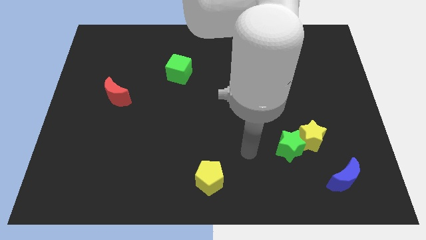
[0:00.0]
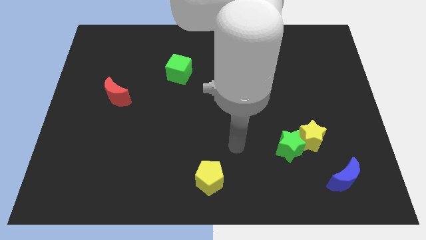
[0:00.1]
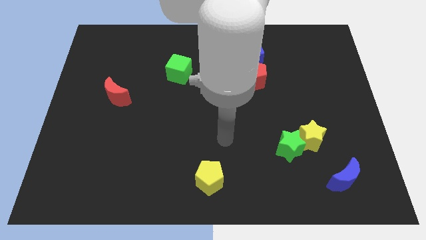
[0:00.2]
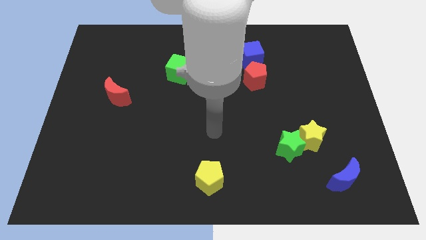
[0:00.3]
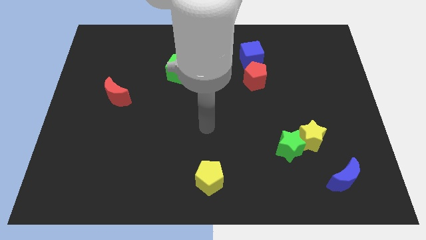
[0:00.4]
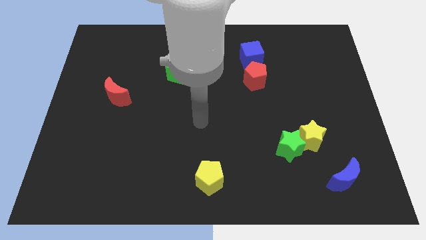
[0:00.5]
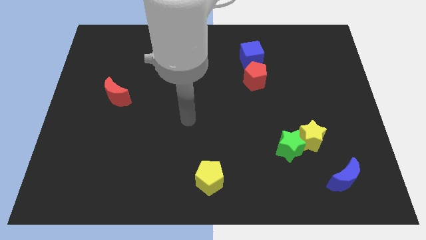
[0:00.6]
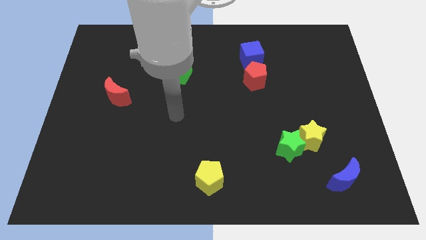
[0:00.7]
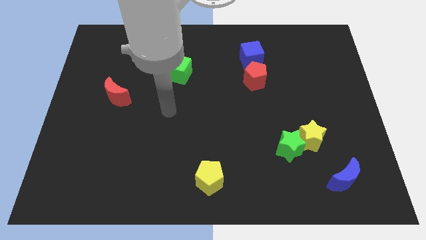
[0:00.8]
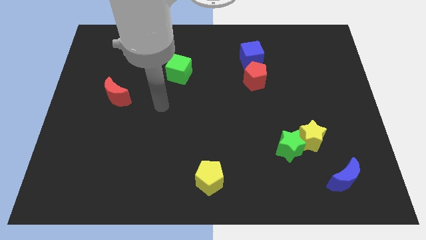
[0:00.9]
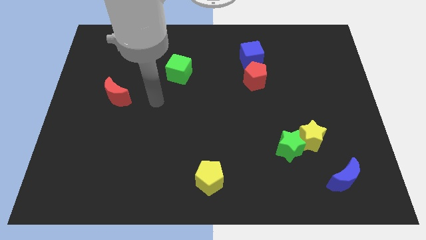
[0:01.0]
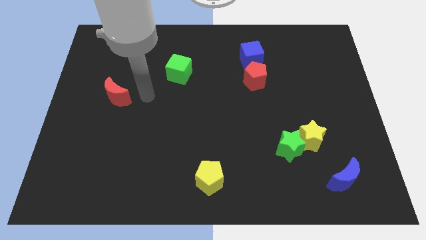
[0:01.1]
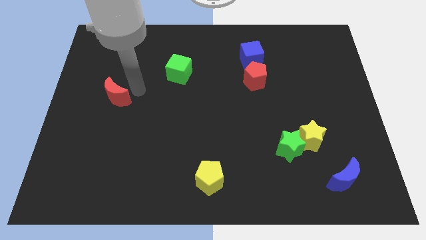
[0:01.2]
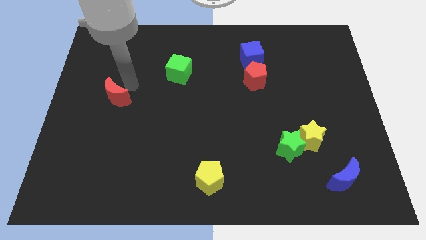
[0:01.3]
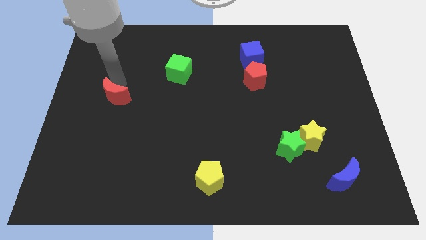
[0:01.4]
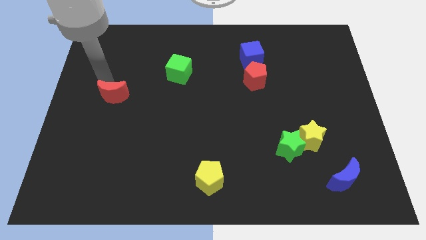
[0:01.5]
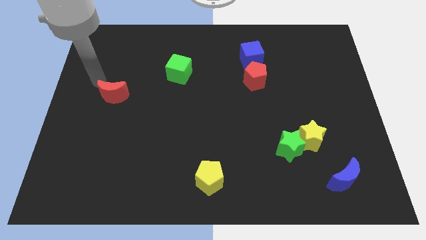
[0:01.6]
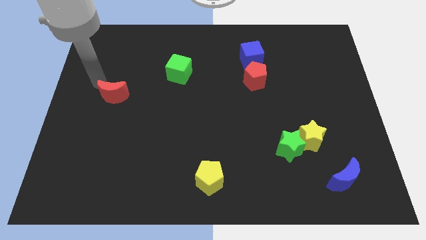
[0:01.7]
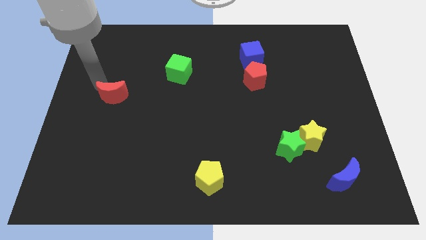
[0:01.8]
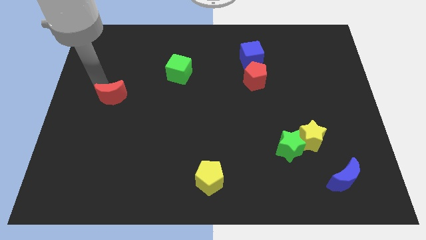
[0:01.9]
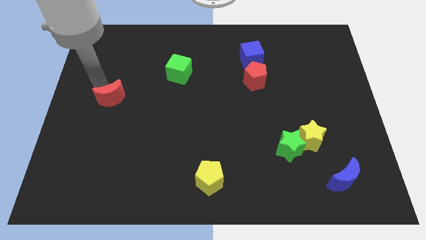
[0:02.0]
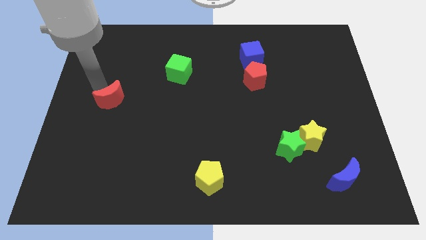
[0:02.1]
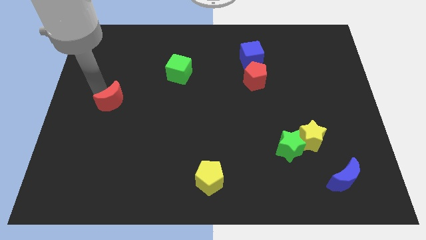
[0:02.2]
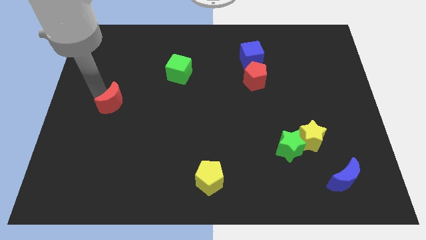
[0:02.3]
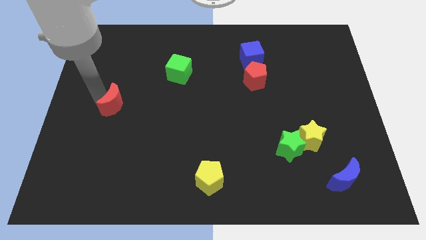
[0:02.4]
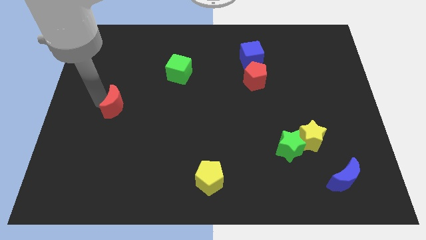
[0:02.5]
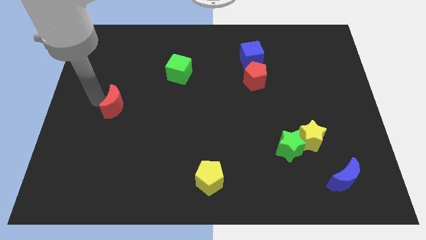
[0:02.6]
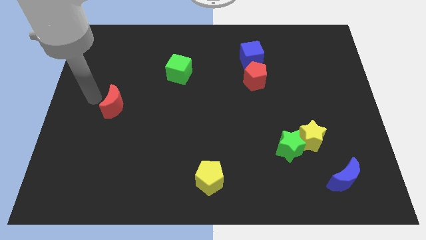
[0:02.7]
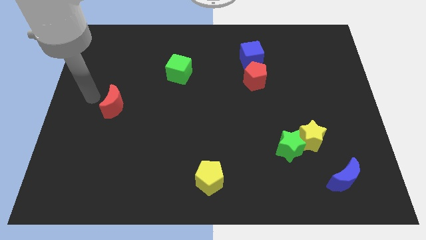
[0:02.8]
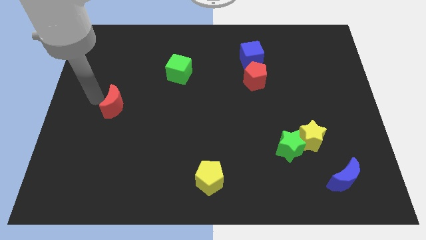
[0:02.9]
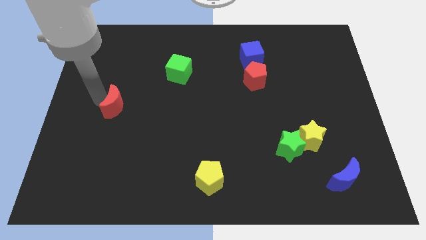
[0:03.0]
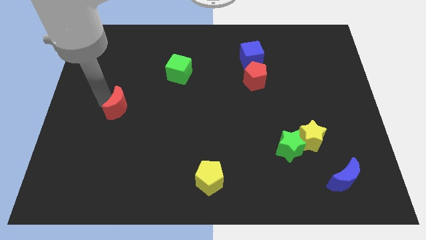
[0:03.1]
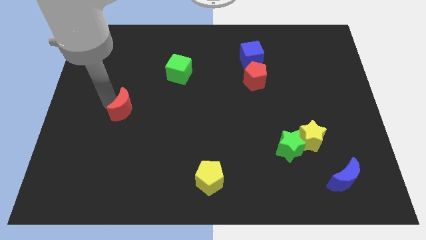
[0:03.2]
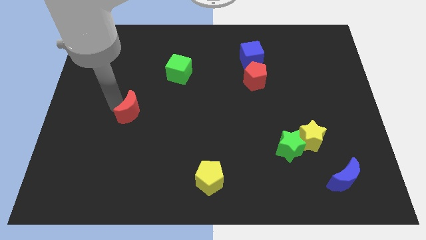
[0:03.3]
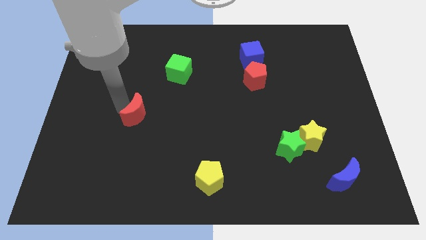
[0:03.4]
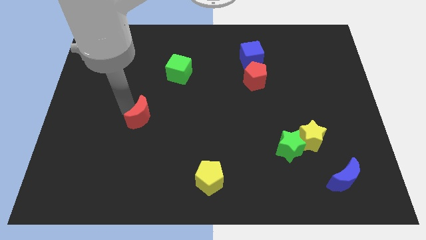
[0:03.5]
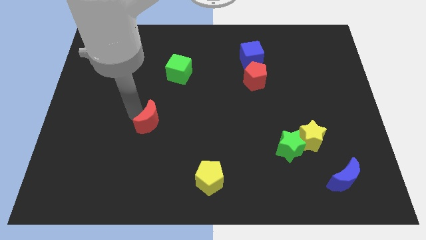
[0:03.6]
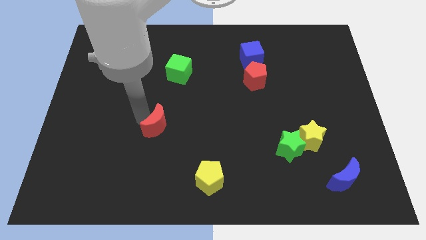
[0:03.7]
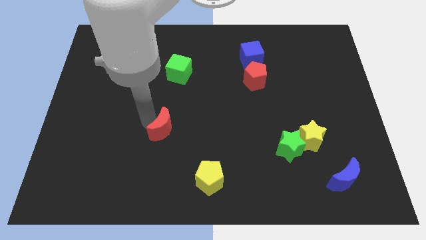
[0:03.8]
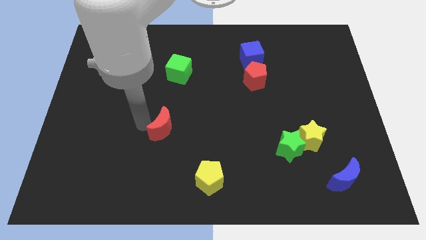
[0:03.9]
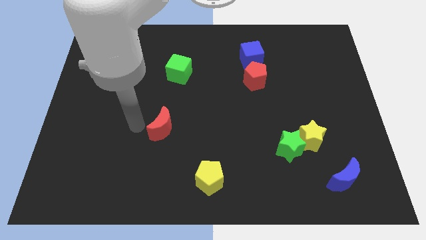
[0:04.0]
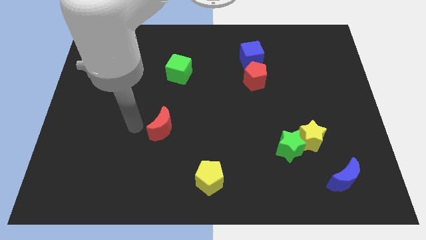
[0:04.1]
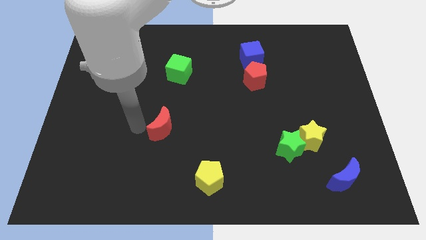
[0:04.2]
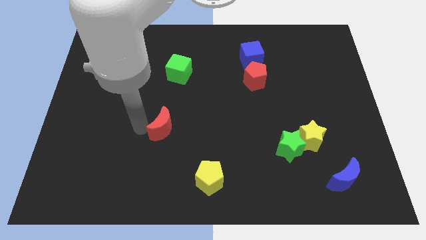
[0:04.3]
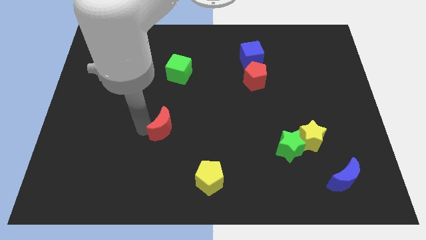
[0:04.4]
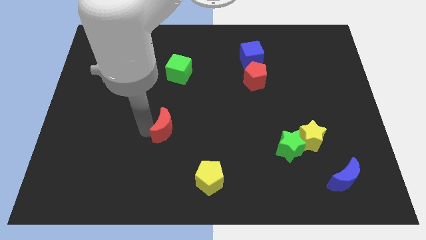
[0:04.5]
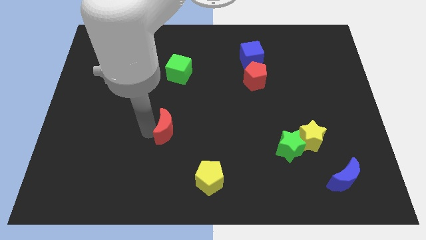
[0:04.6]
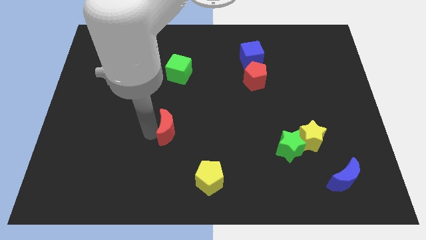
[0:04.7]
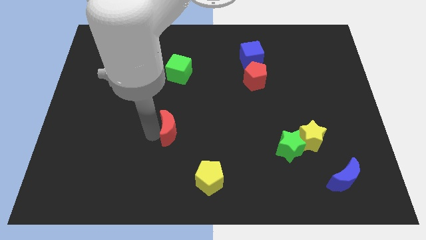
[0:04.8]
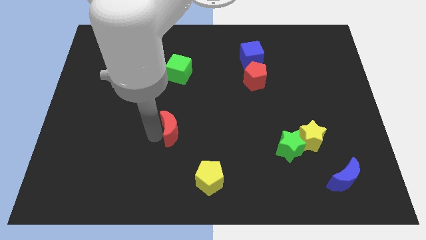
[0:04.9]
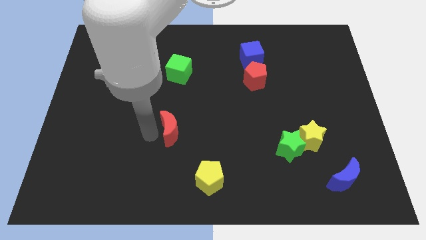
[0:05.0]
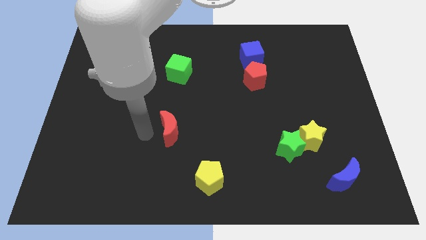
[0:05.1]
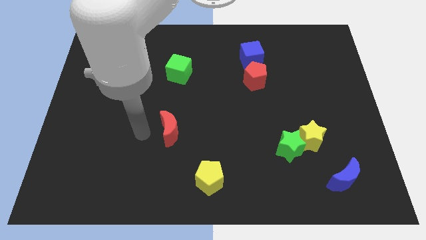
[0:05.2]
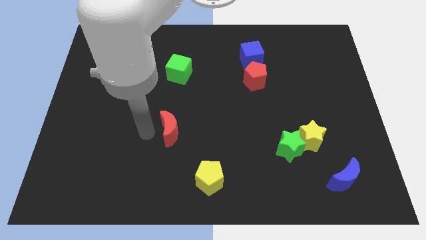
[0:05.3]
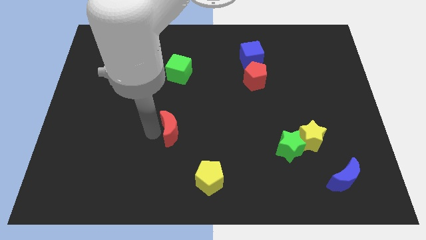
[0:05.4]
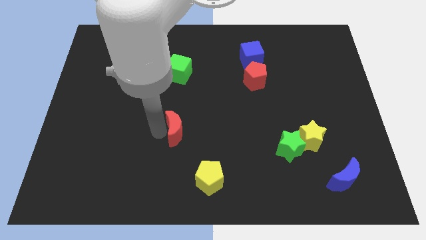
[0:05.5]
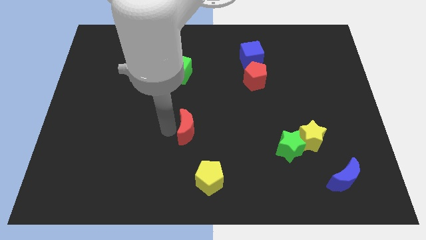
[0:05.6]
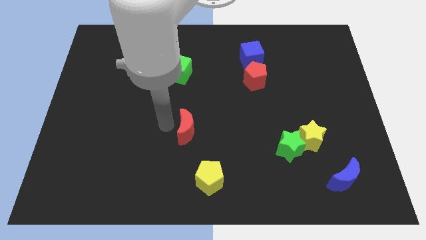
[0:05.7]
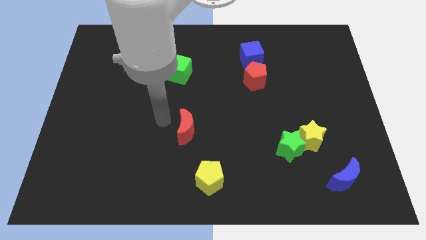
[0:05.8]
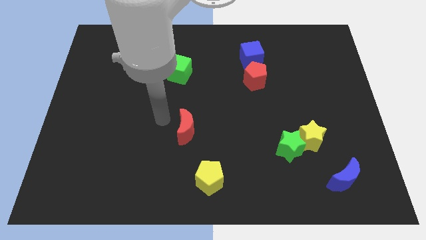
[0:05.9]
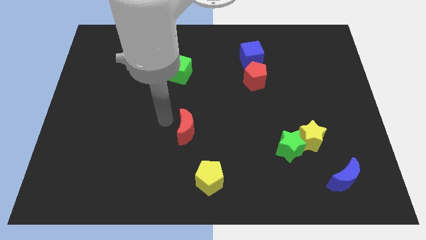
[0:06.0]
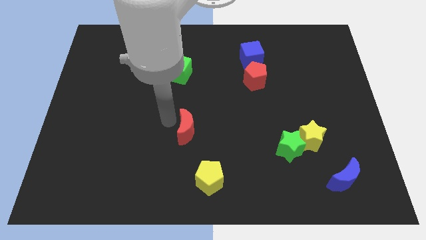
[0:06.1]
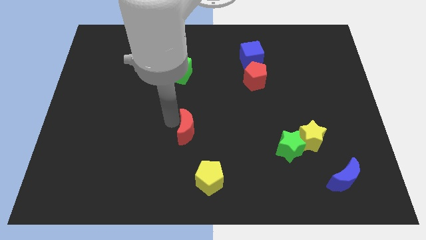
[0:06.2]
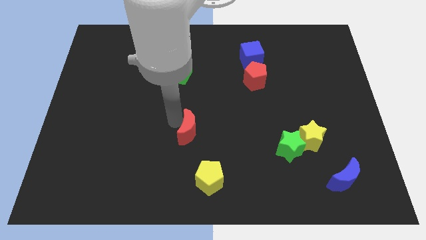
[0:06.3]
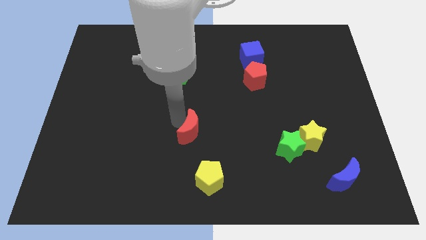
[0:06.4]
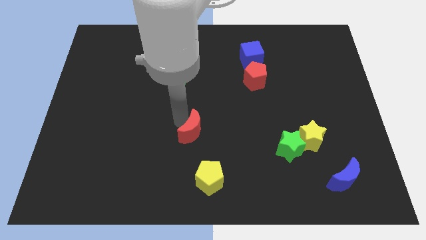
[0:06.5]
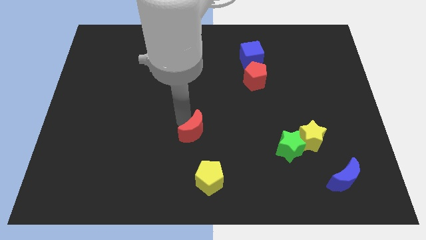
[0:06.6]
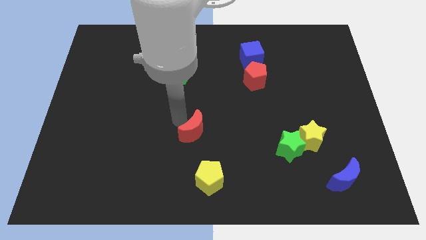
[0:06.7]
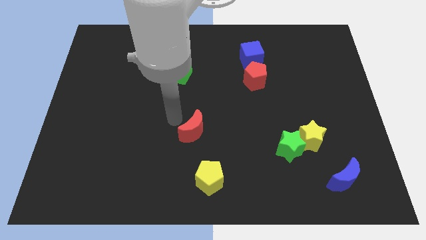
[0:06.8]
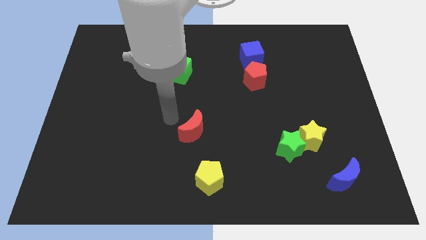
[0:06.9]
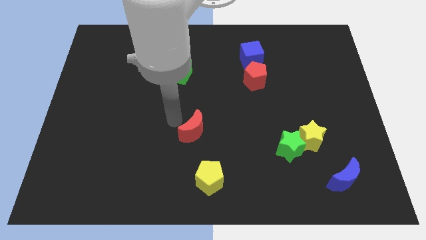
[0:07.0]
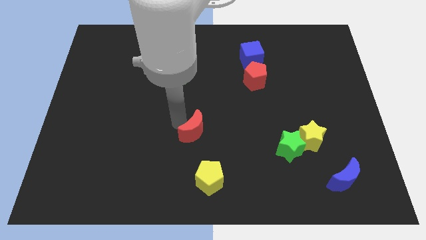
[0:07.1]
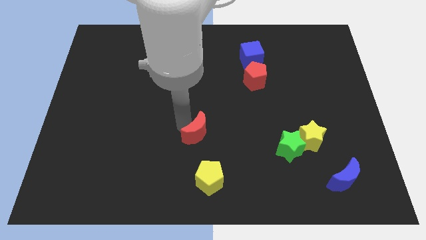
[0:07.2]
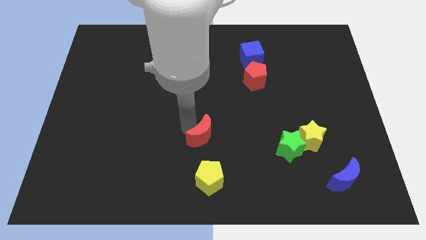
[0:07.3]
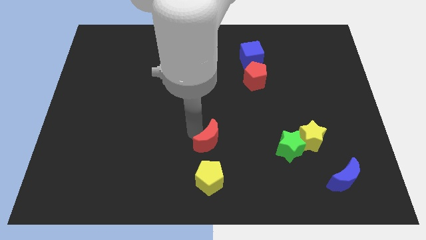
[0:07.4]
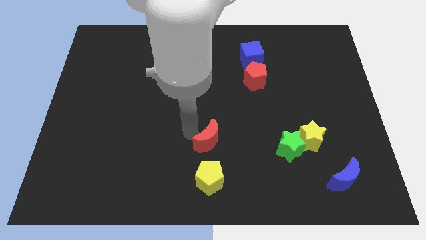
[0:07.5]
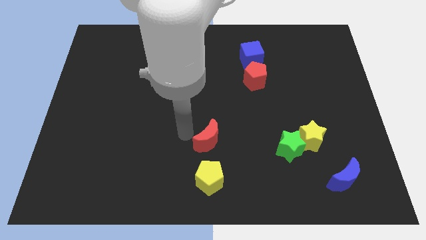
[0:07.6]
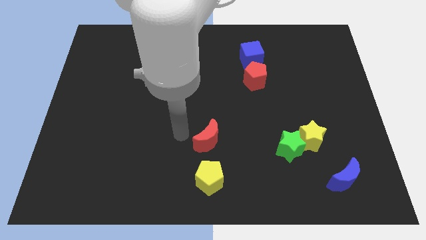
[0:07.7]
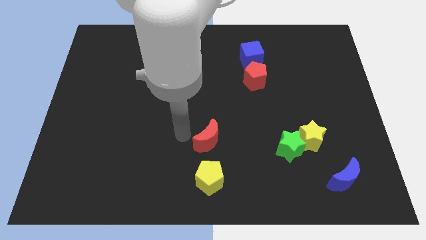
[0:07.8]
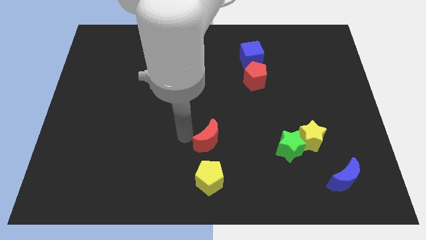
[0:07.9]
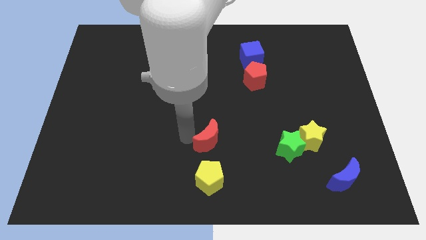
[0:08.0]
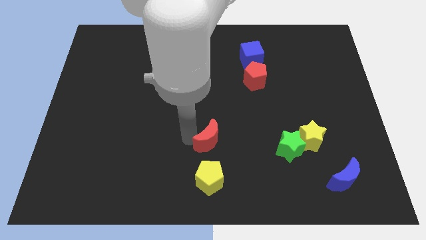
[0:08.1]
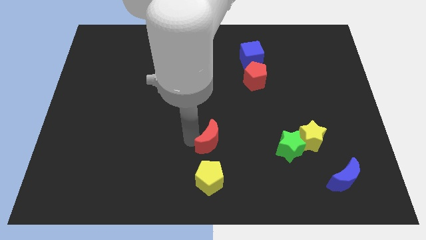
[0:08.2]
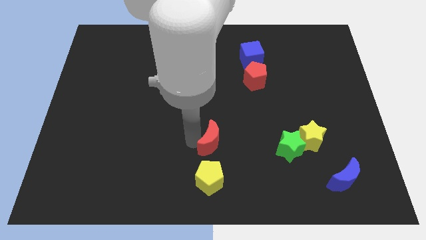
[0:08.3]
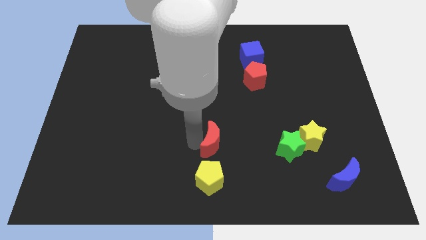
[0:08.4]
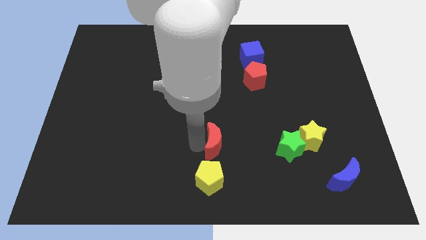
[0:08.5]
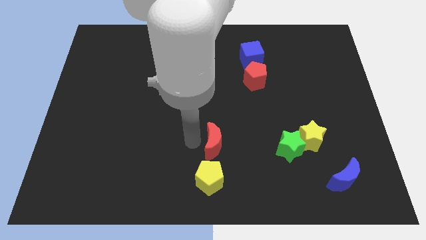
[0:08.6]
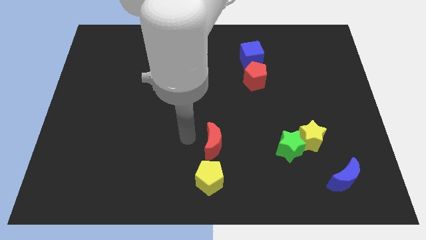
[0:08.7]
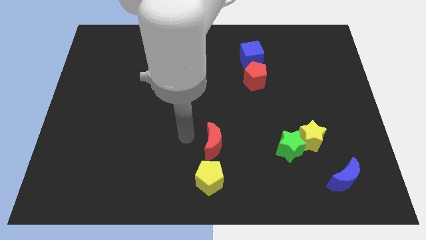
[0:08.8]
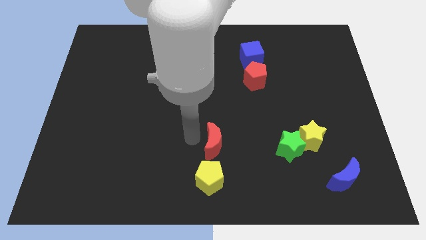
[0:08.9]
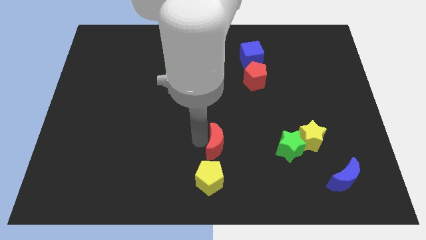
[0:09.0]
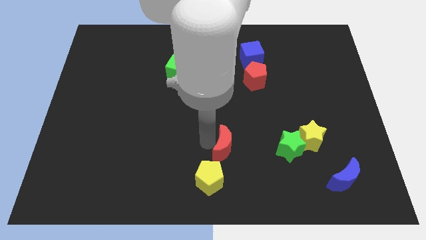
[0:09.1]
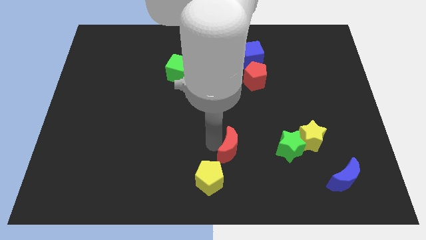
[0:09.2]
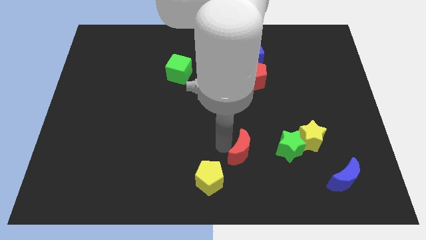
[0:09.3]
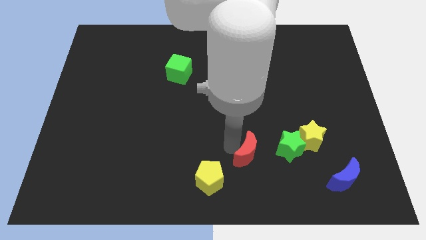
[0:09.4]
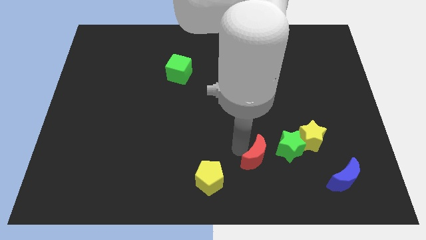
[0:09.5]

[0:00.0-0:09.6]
put the red moon to the bottom left of the green star
